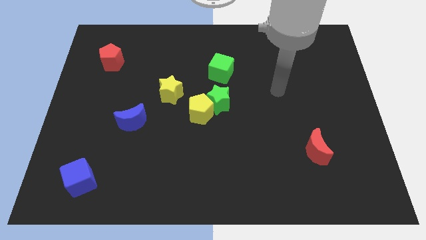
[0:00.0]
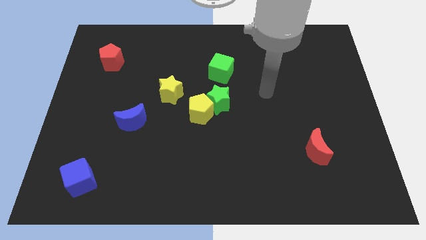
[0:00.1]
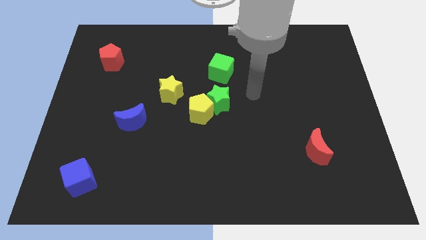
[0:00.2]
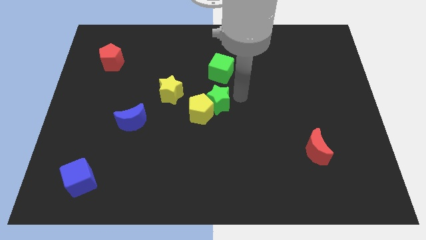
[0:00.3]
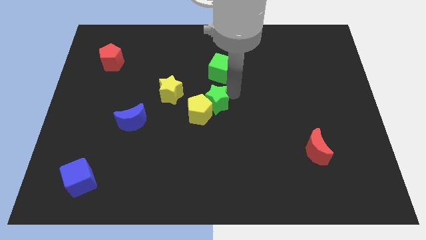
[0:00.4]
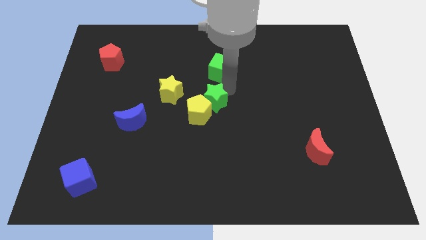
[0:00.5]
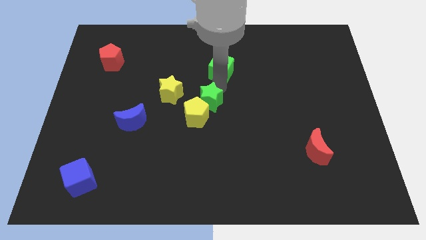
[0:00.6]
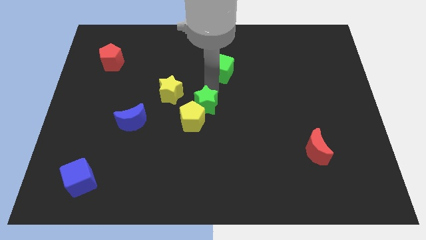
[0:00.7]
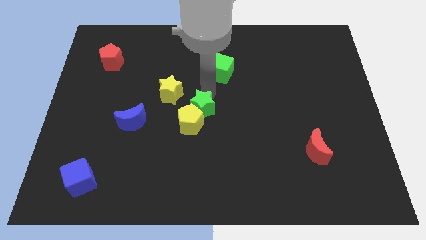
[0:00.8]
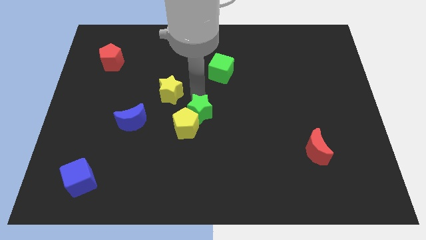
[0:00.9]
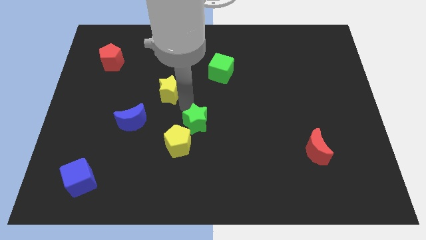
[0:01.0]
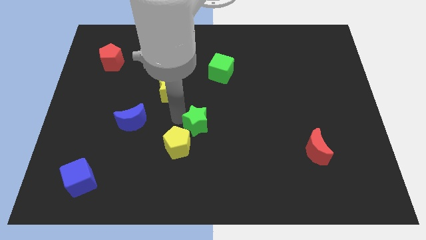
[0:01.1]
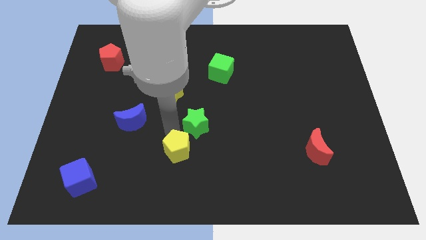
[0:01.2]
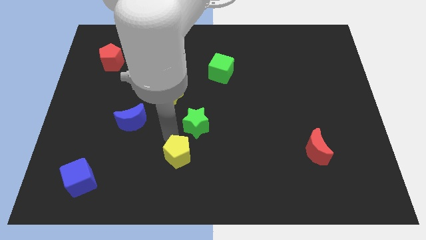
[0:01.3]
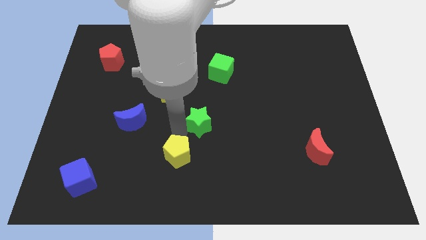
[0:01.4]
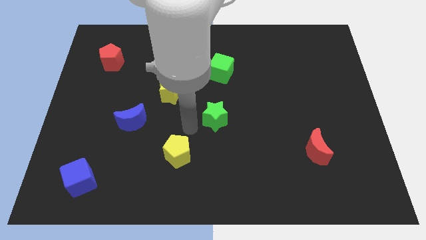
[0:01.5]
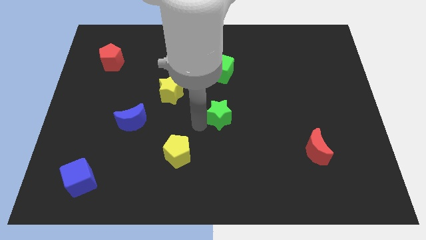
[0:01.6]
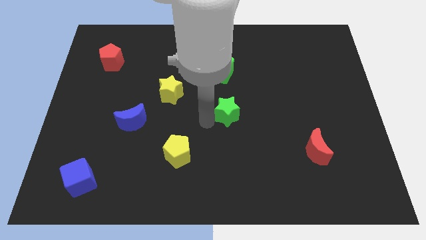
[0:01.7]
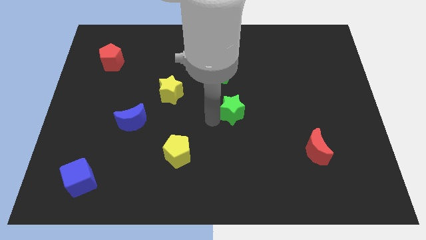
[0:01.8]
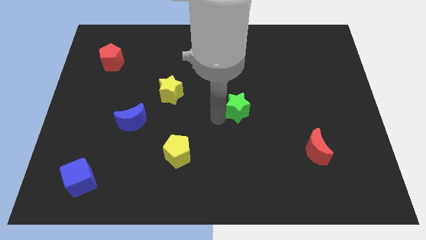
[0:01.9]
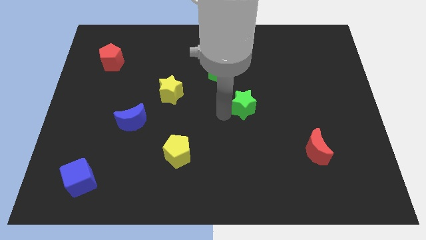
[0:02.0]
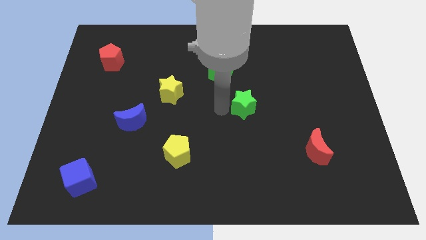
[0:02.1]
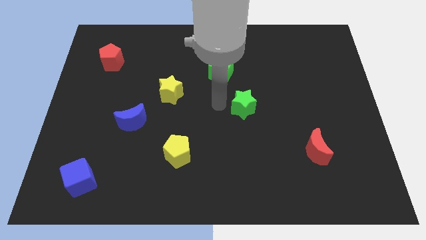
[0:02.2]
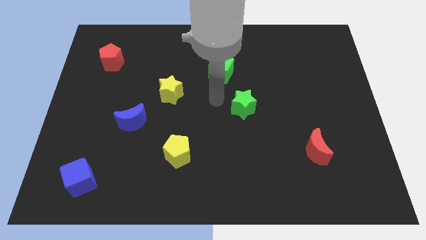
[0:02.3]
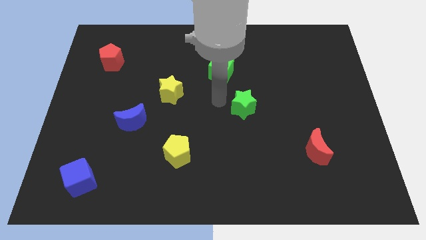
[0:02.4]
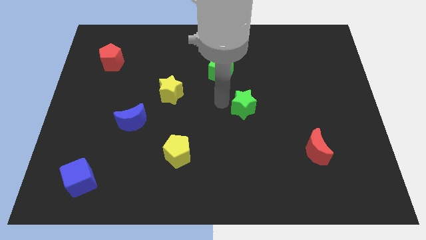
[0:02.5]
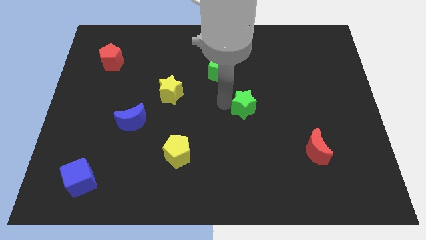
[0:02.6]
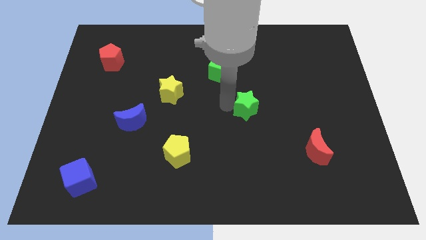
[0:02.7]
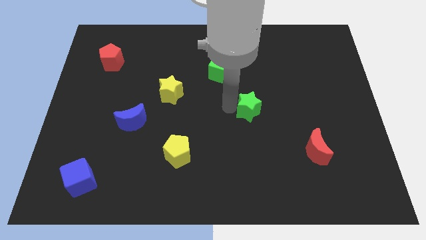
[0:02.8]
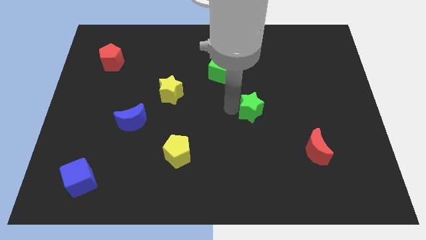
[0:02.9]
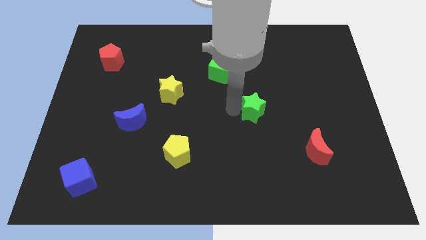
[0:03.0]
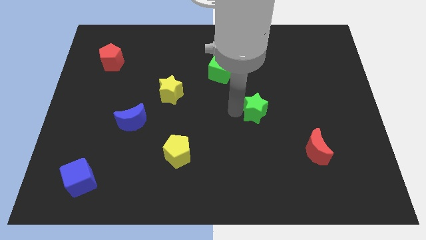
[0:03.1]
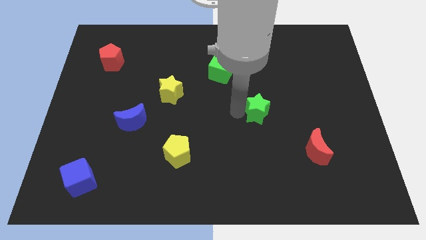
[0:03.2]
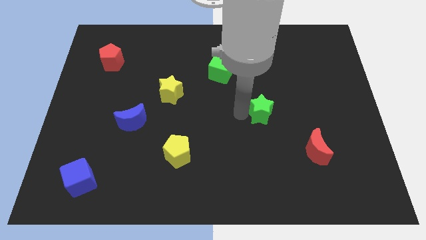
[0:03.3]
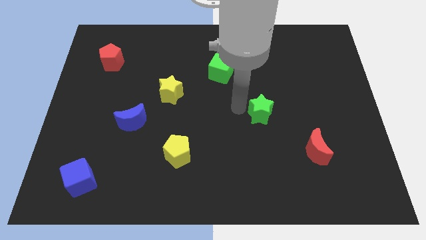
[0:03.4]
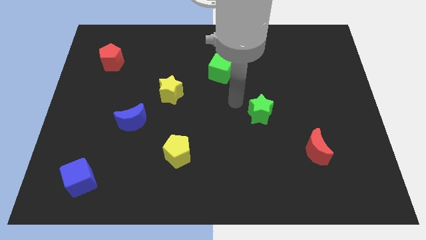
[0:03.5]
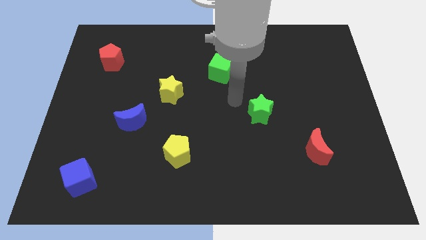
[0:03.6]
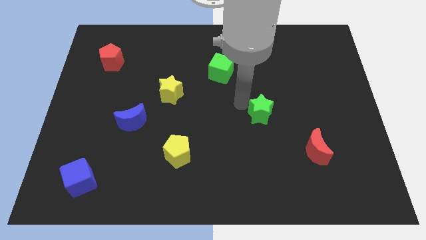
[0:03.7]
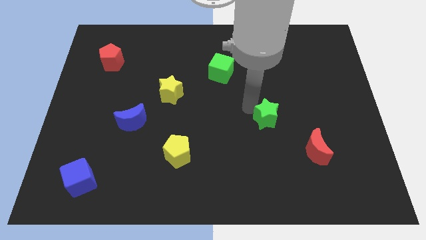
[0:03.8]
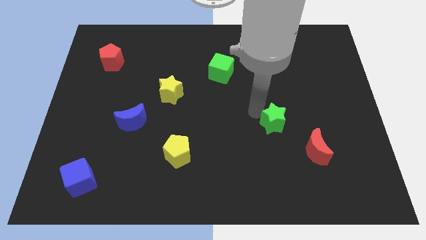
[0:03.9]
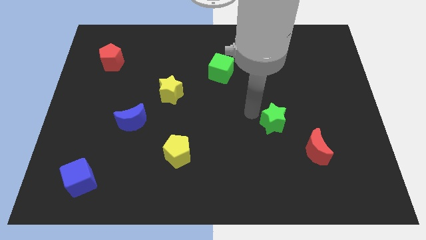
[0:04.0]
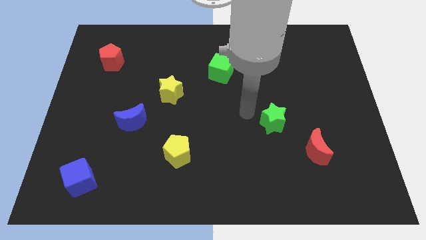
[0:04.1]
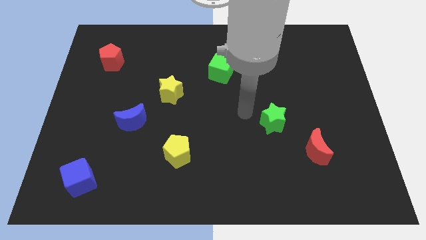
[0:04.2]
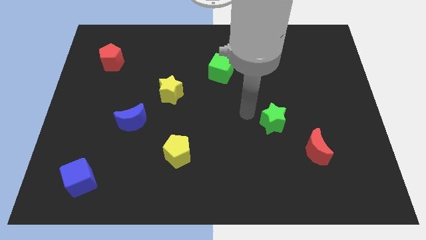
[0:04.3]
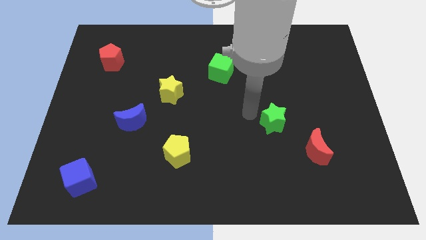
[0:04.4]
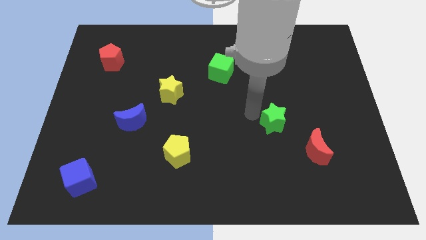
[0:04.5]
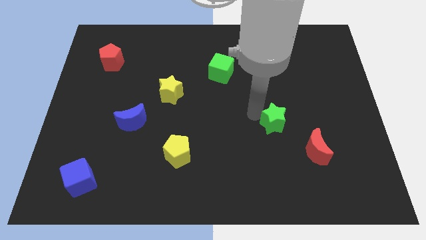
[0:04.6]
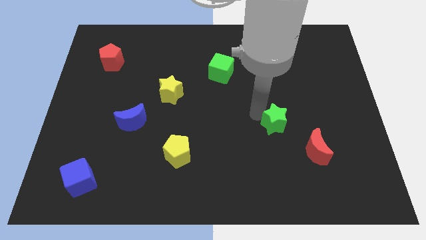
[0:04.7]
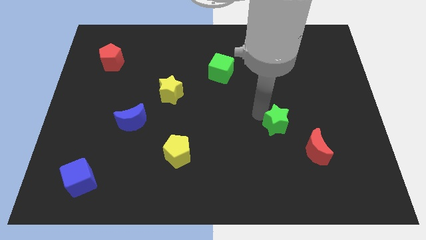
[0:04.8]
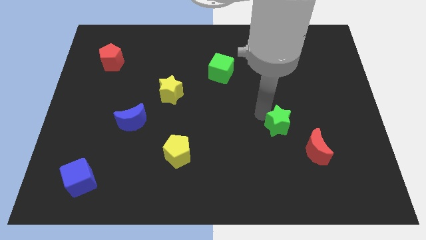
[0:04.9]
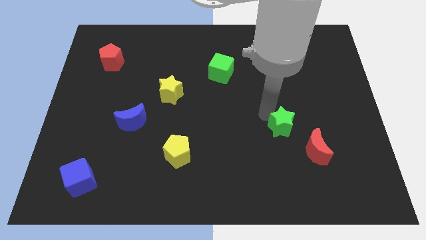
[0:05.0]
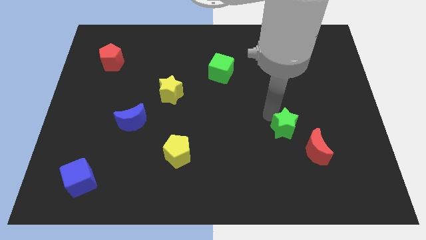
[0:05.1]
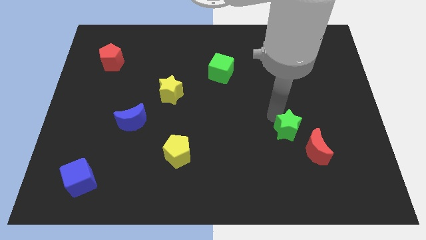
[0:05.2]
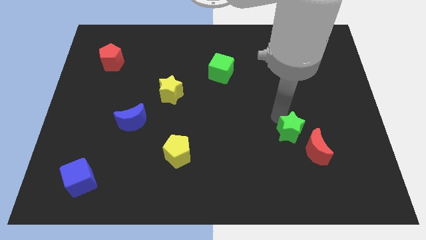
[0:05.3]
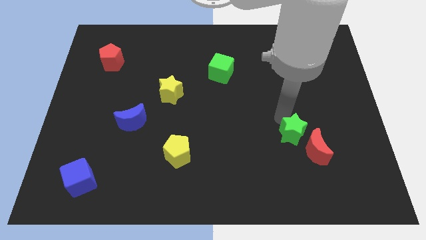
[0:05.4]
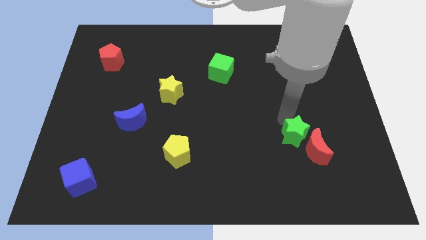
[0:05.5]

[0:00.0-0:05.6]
push the green star close to the red moon

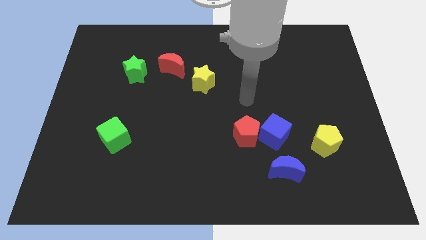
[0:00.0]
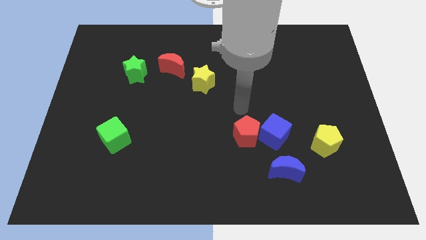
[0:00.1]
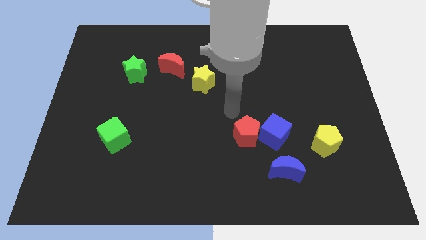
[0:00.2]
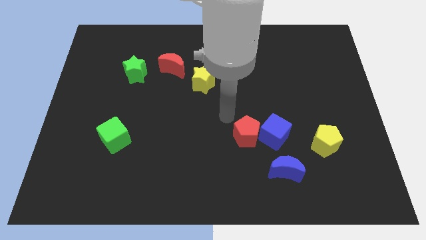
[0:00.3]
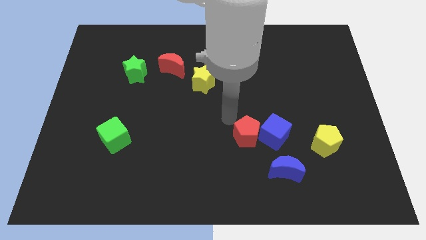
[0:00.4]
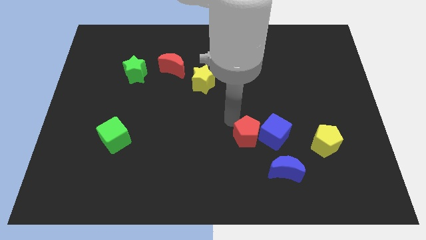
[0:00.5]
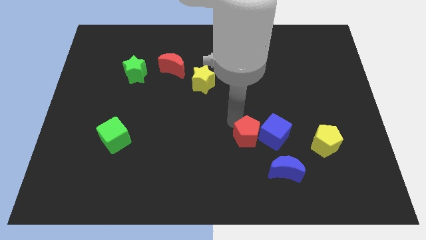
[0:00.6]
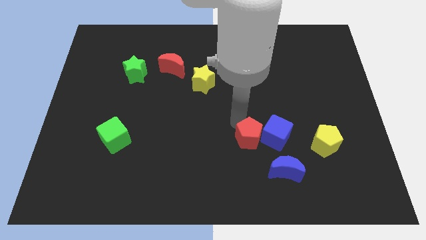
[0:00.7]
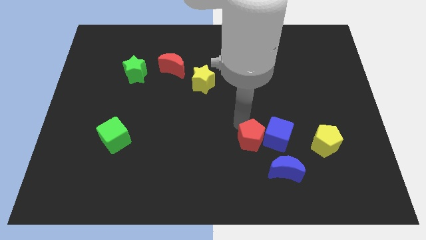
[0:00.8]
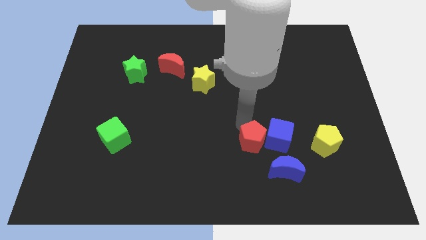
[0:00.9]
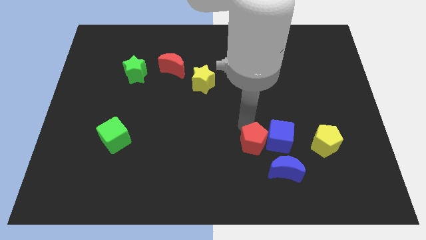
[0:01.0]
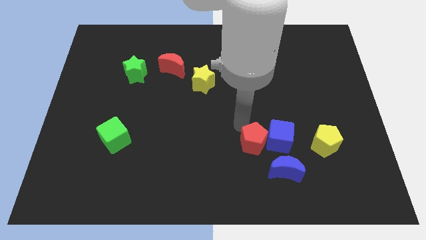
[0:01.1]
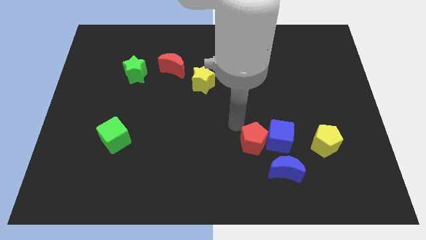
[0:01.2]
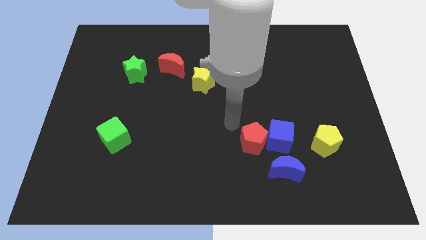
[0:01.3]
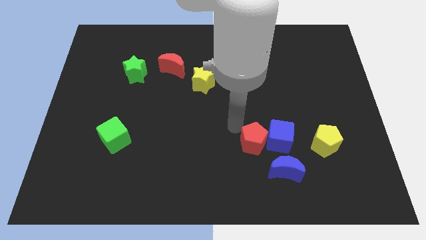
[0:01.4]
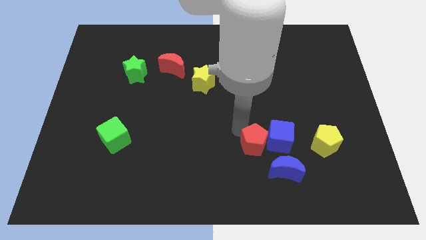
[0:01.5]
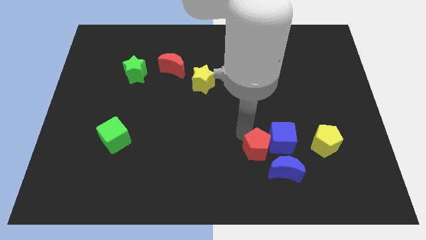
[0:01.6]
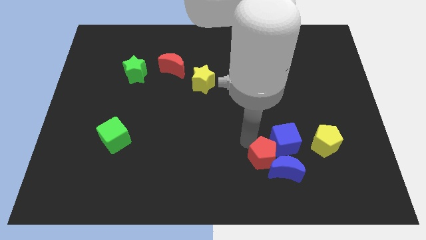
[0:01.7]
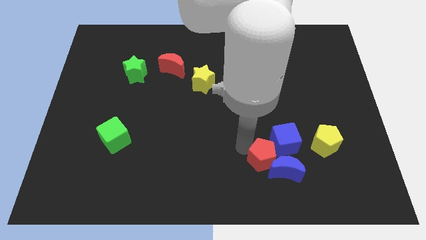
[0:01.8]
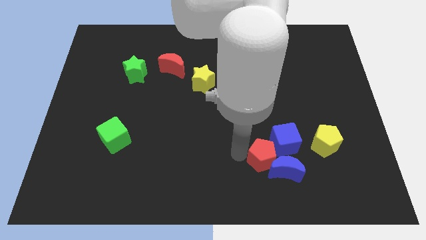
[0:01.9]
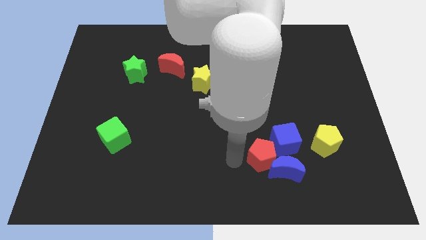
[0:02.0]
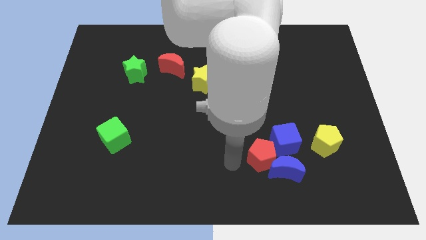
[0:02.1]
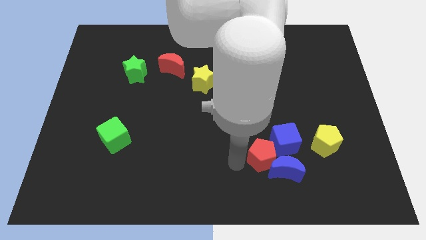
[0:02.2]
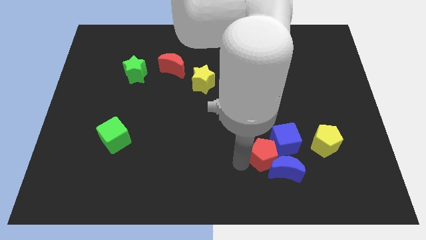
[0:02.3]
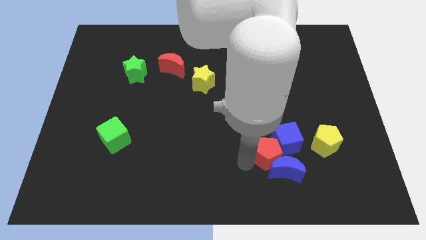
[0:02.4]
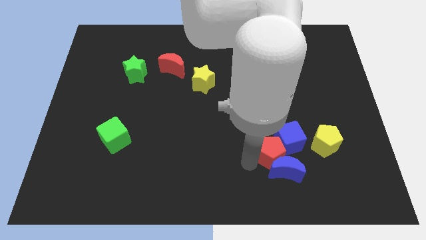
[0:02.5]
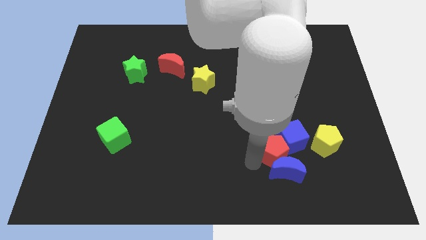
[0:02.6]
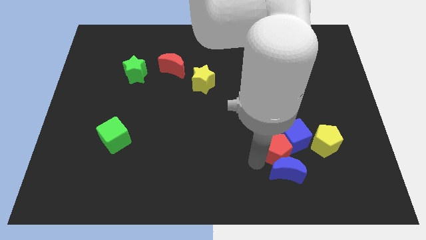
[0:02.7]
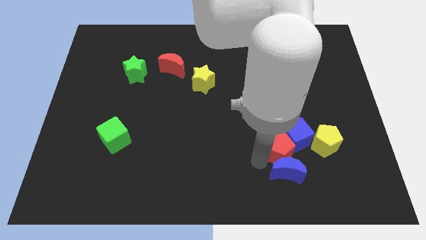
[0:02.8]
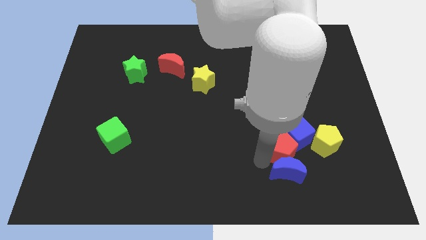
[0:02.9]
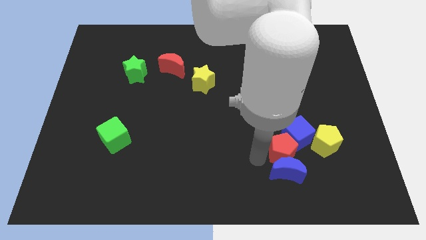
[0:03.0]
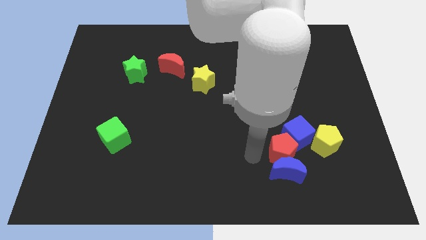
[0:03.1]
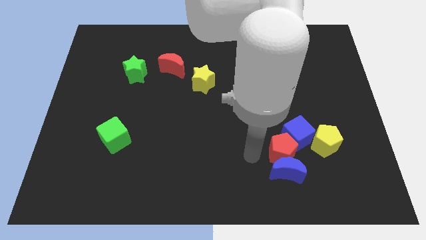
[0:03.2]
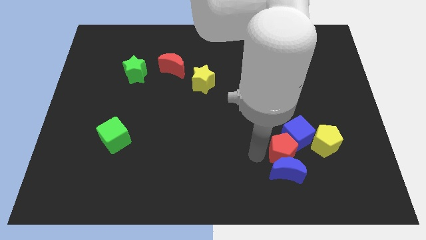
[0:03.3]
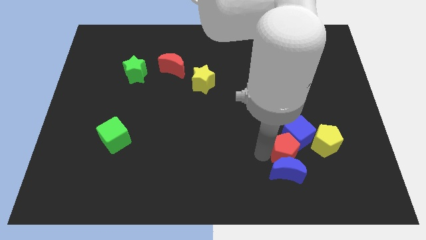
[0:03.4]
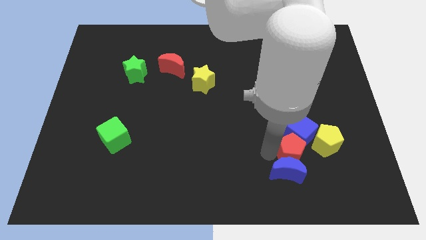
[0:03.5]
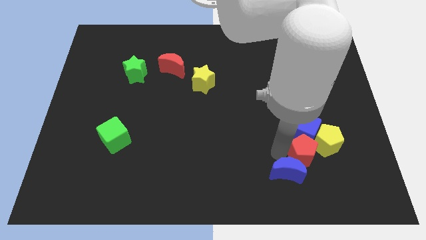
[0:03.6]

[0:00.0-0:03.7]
slide the red pentagon close to the yellow pentagon
